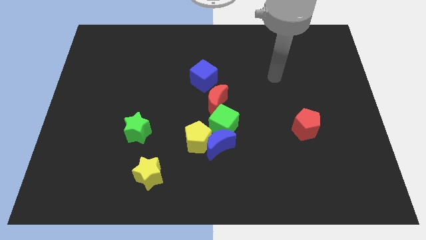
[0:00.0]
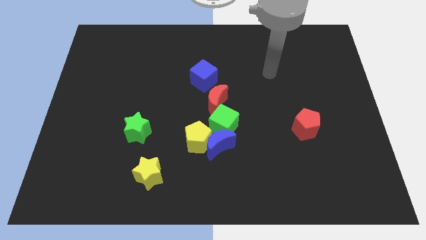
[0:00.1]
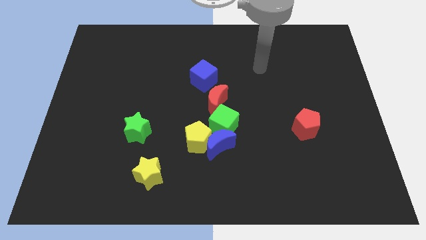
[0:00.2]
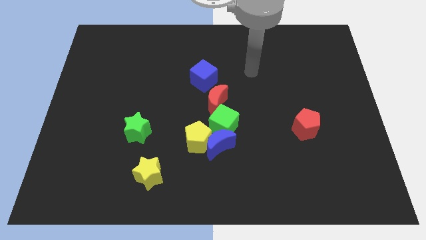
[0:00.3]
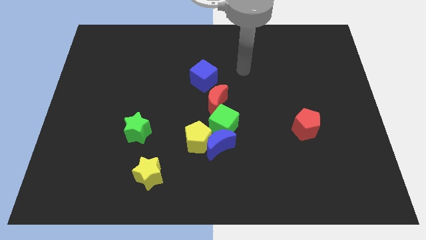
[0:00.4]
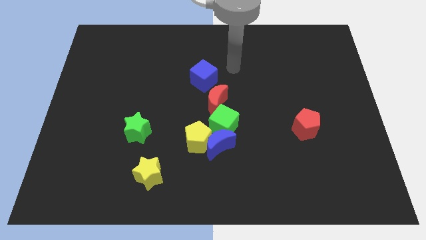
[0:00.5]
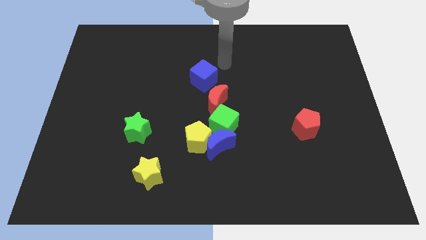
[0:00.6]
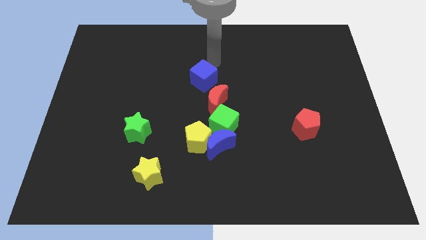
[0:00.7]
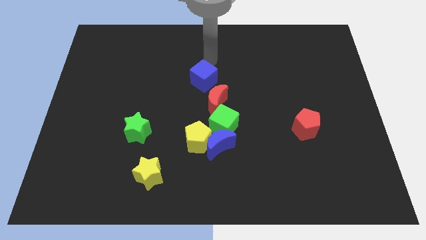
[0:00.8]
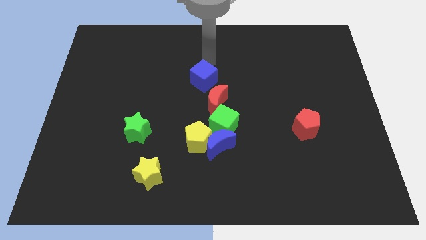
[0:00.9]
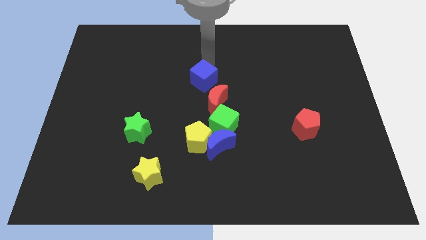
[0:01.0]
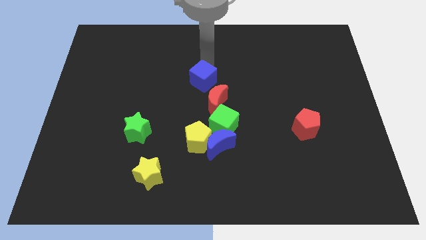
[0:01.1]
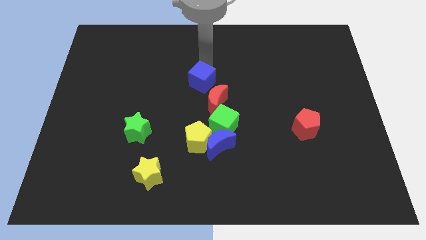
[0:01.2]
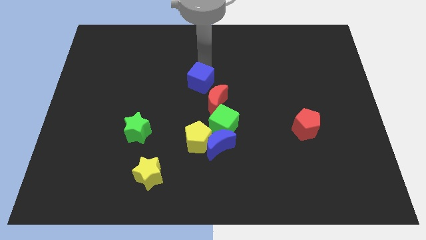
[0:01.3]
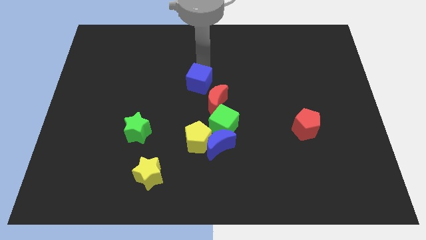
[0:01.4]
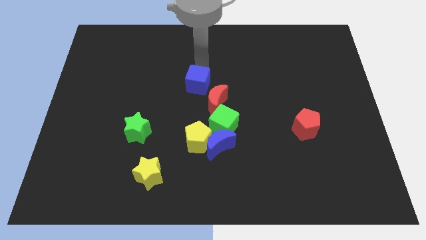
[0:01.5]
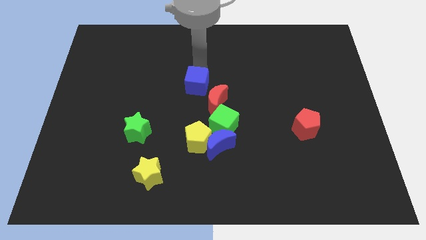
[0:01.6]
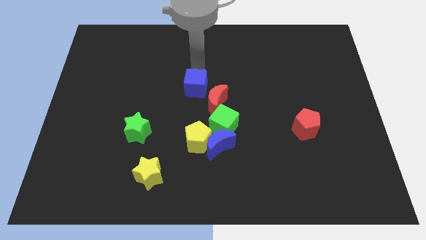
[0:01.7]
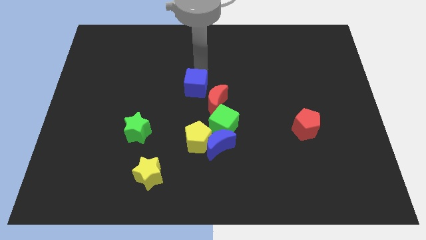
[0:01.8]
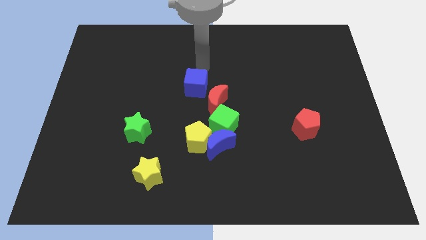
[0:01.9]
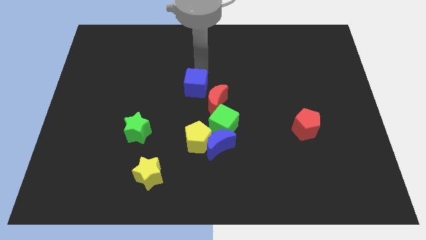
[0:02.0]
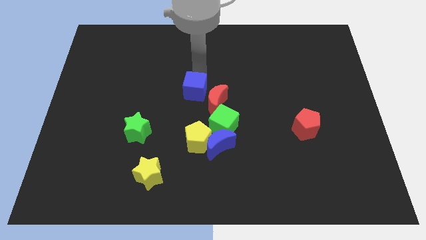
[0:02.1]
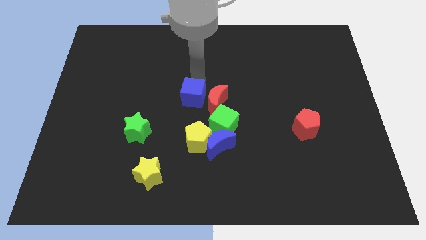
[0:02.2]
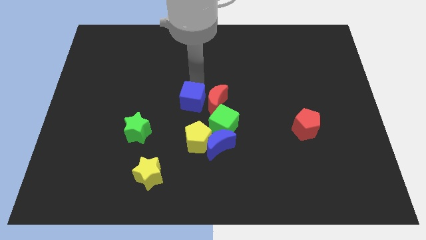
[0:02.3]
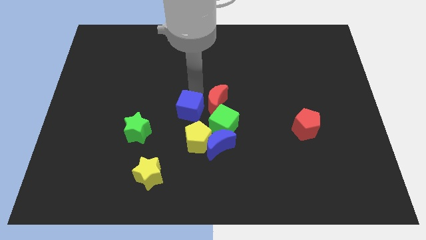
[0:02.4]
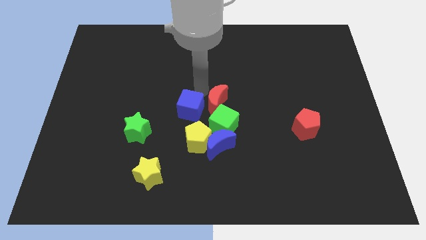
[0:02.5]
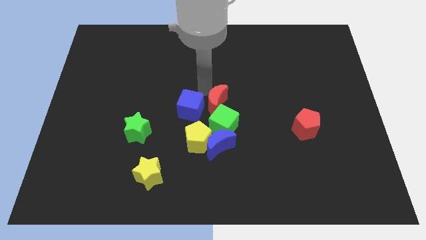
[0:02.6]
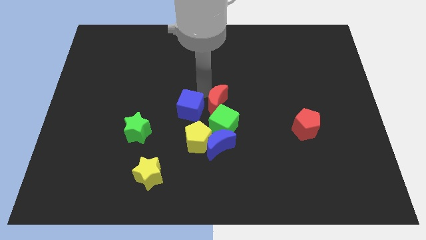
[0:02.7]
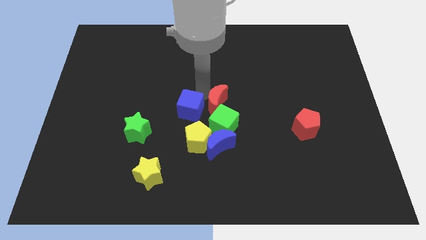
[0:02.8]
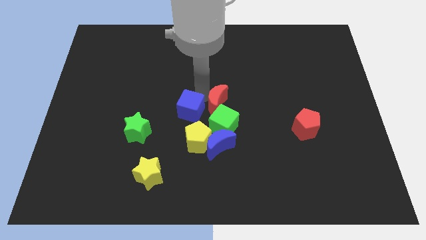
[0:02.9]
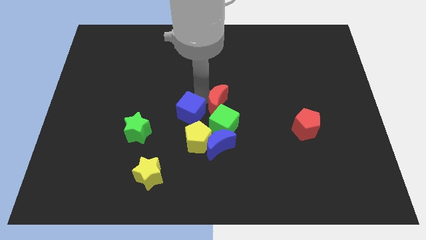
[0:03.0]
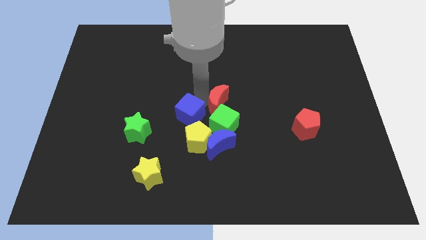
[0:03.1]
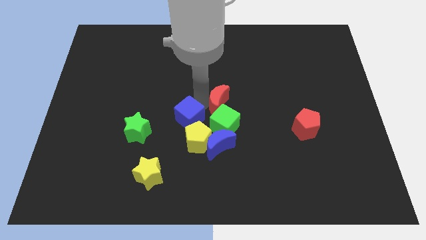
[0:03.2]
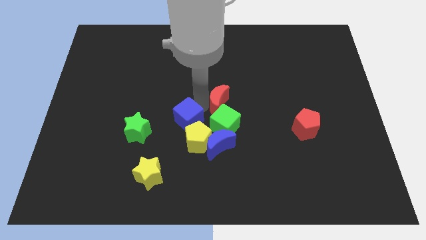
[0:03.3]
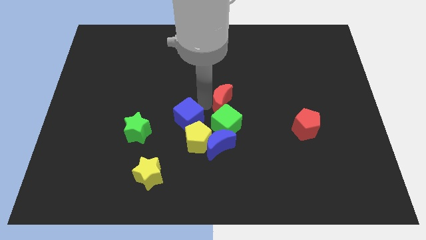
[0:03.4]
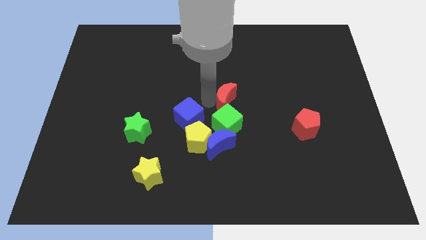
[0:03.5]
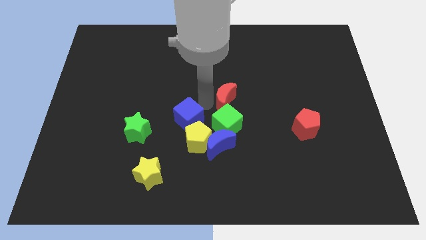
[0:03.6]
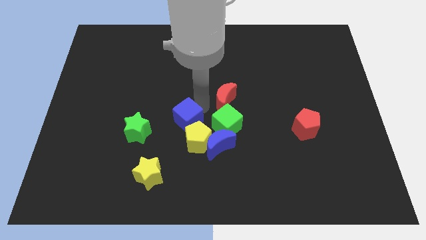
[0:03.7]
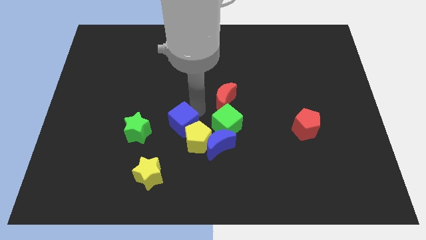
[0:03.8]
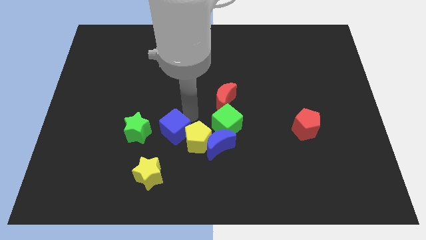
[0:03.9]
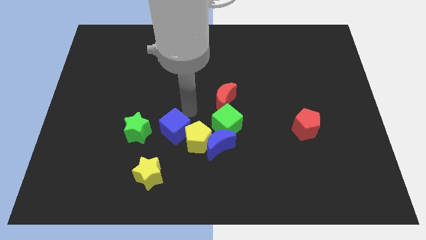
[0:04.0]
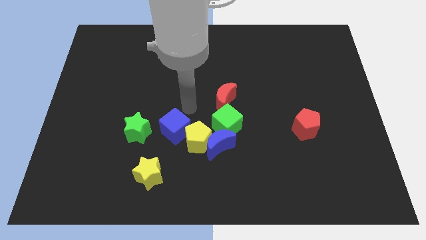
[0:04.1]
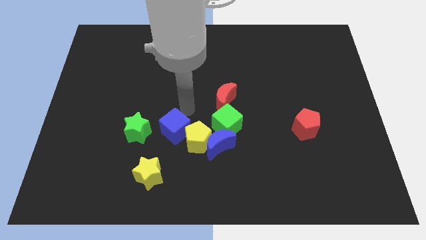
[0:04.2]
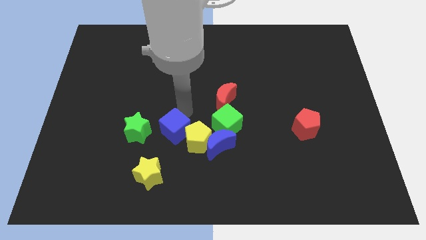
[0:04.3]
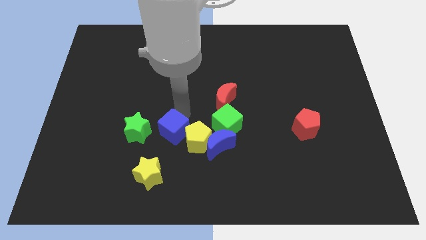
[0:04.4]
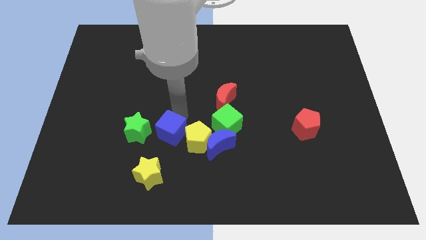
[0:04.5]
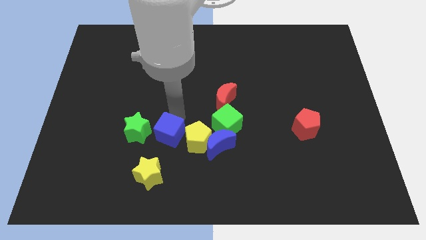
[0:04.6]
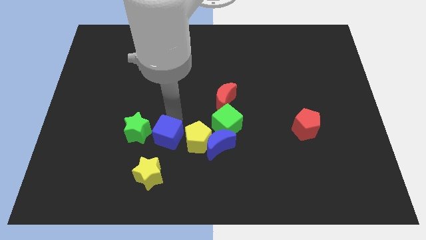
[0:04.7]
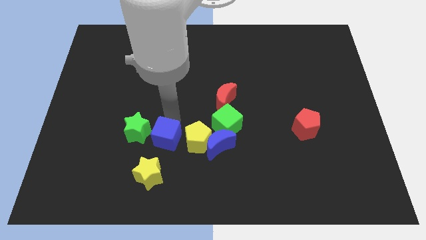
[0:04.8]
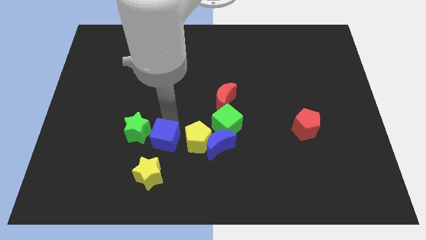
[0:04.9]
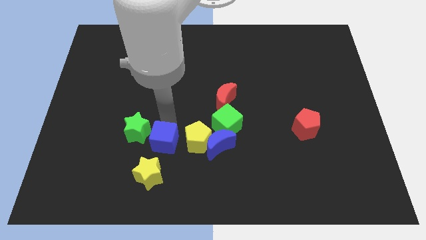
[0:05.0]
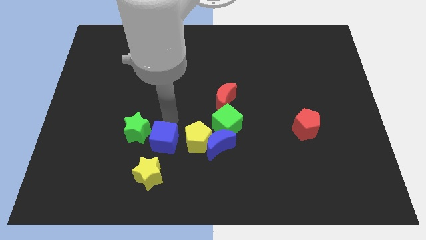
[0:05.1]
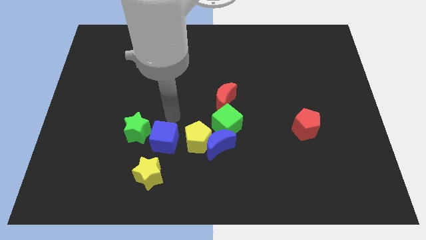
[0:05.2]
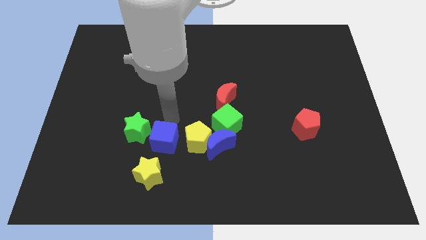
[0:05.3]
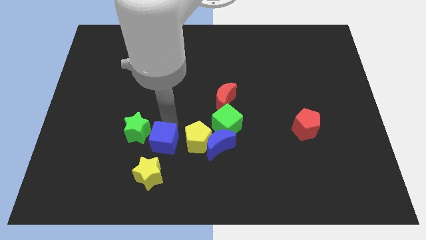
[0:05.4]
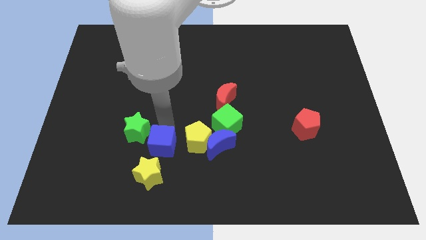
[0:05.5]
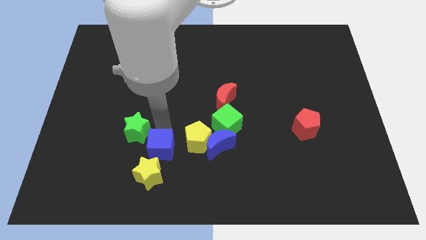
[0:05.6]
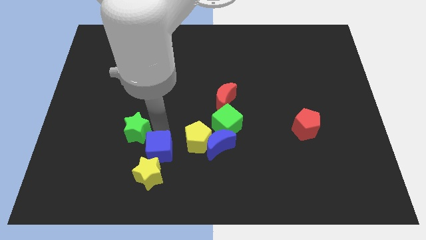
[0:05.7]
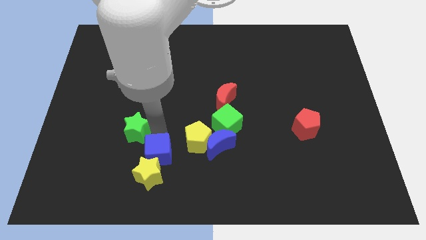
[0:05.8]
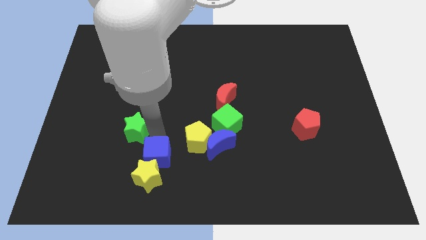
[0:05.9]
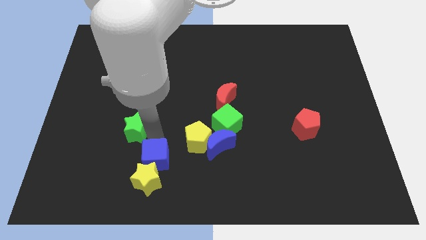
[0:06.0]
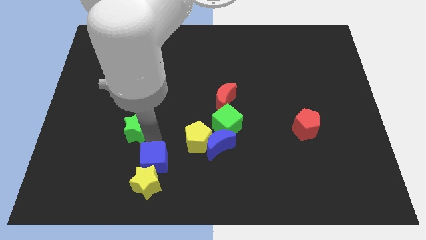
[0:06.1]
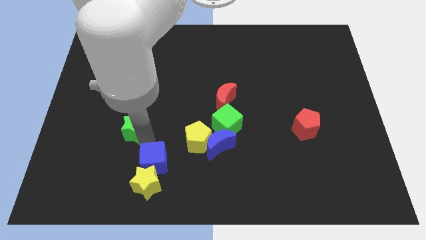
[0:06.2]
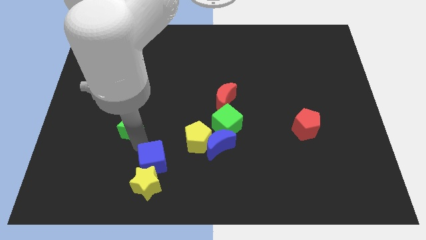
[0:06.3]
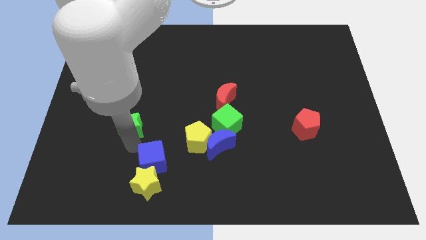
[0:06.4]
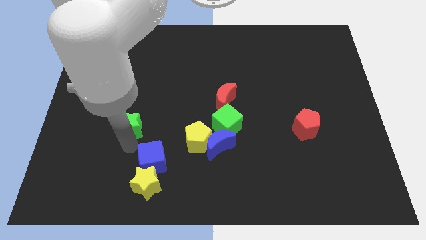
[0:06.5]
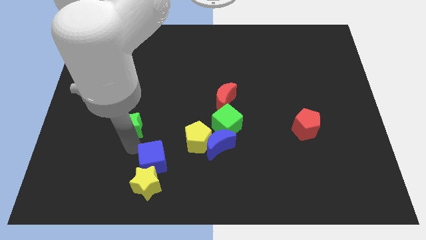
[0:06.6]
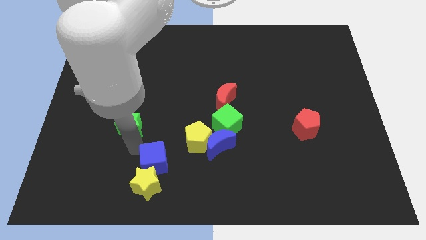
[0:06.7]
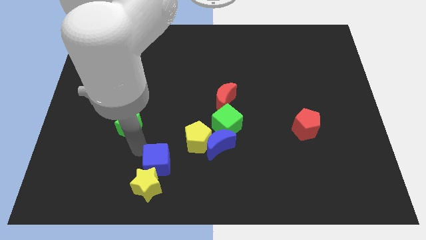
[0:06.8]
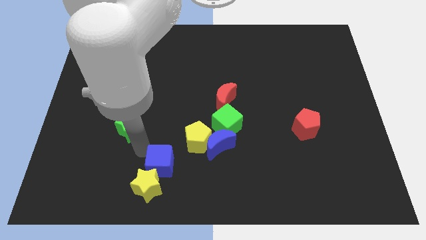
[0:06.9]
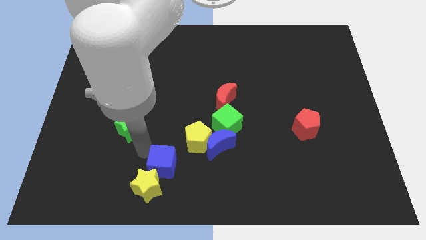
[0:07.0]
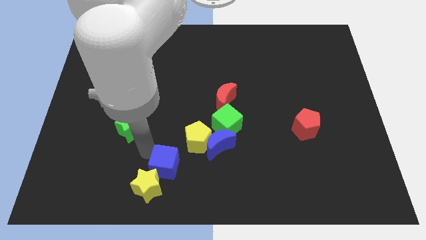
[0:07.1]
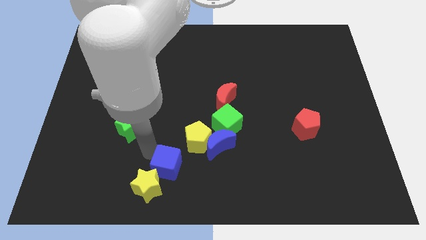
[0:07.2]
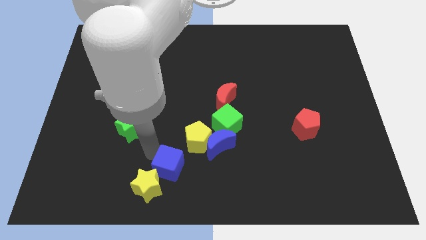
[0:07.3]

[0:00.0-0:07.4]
push the blue cube to the bottom side
